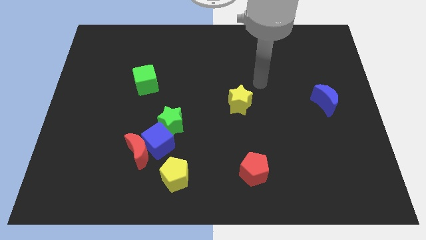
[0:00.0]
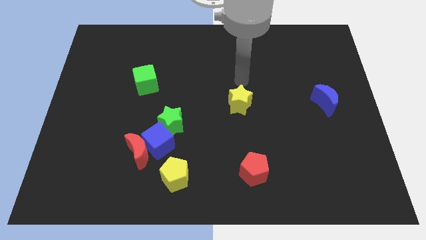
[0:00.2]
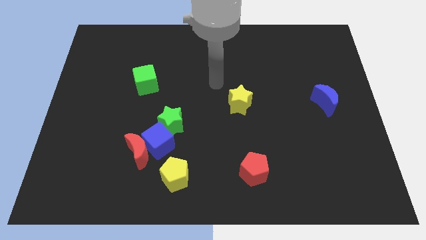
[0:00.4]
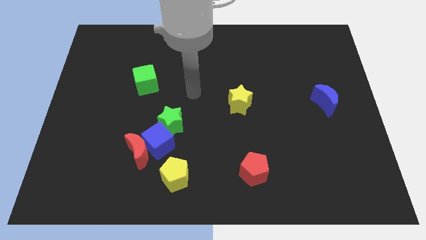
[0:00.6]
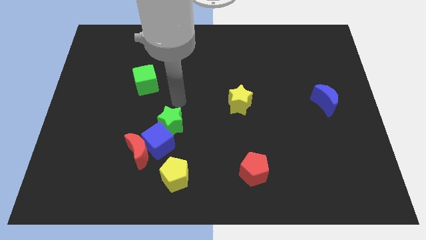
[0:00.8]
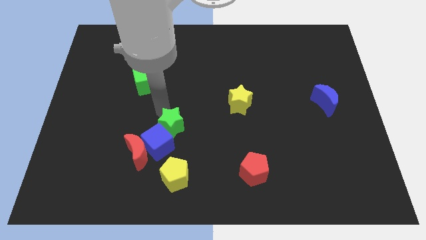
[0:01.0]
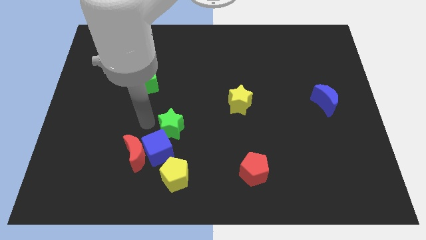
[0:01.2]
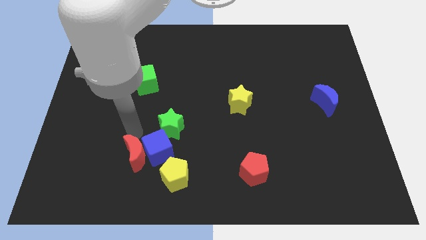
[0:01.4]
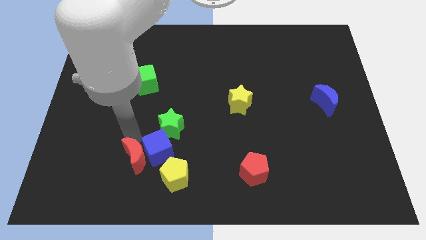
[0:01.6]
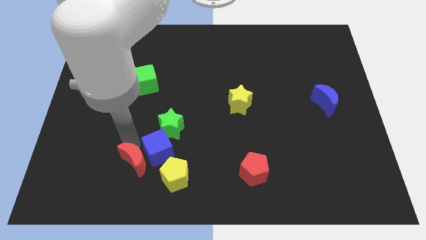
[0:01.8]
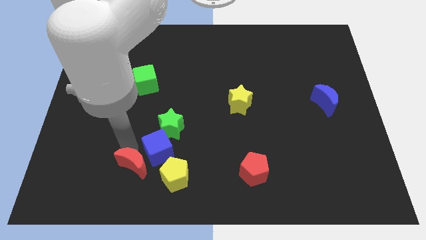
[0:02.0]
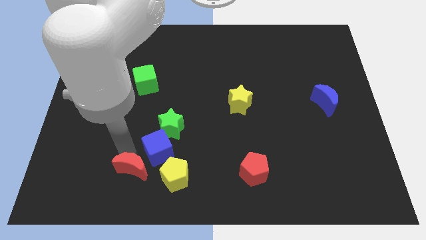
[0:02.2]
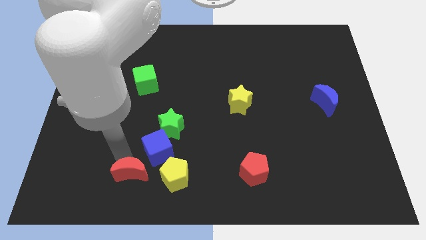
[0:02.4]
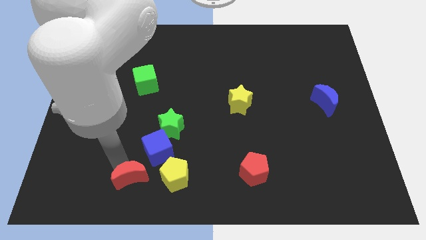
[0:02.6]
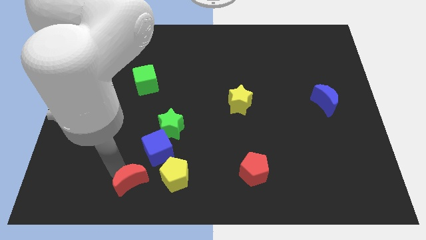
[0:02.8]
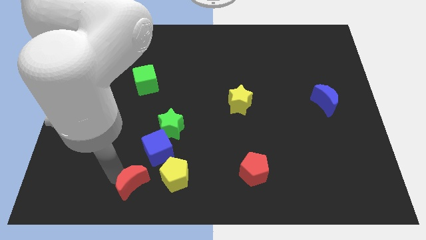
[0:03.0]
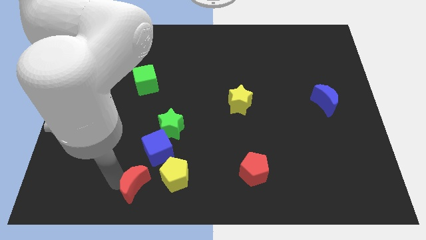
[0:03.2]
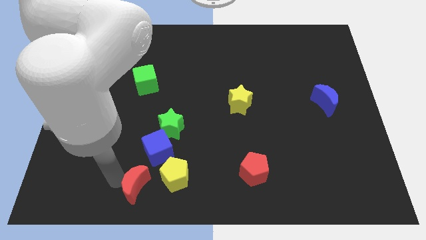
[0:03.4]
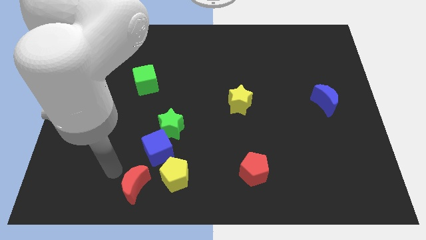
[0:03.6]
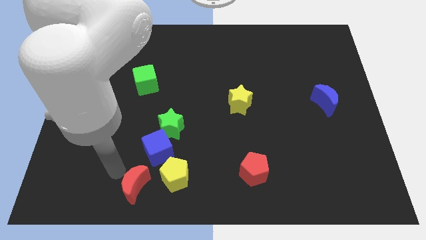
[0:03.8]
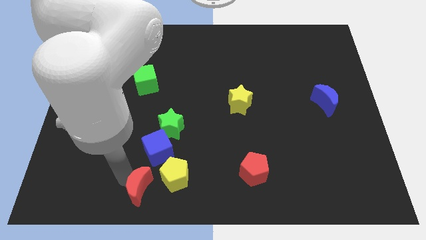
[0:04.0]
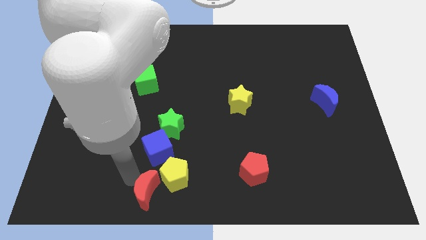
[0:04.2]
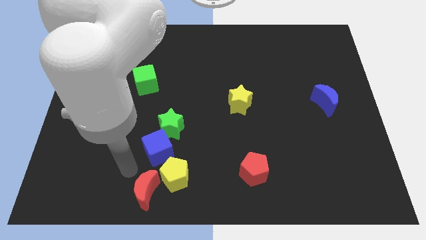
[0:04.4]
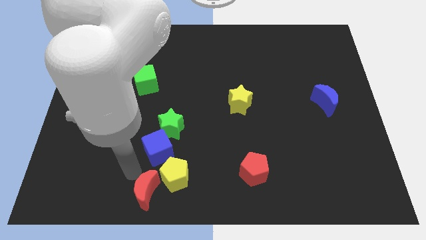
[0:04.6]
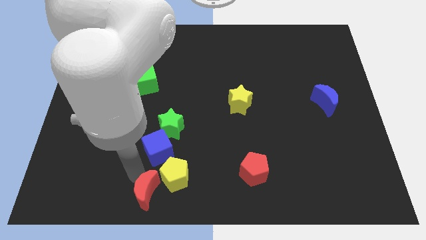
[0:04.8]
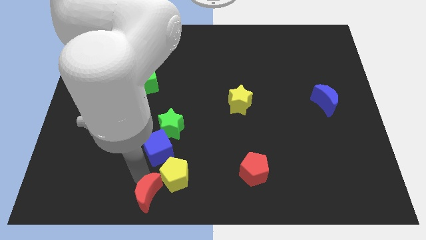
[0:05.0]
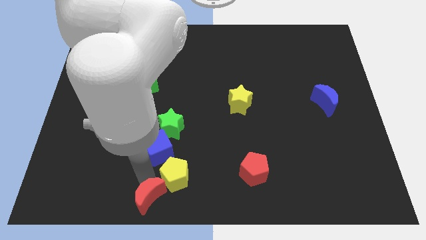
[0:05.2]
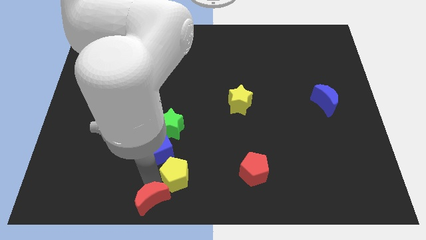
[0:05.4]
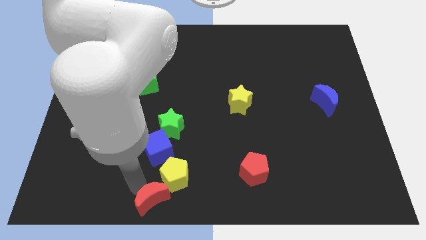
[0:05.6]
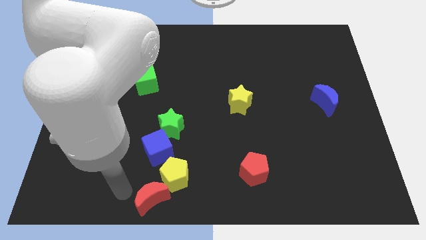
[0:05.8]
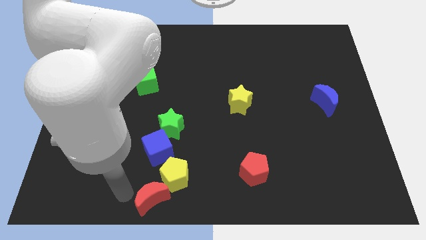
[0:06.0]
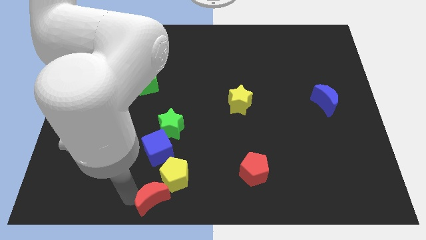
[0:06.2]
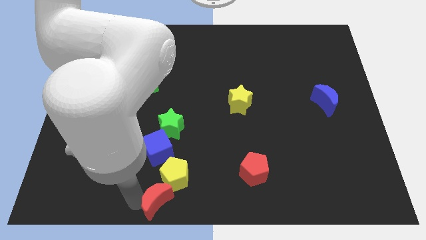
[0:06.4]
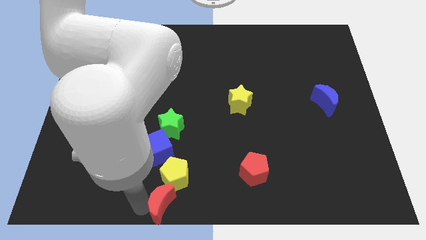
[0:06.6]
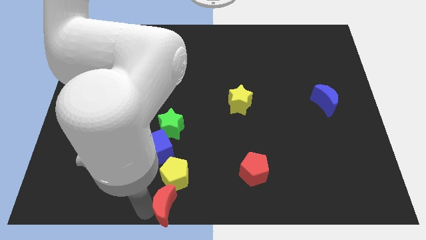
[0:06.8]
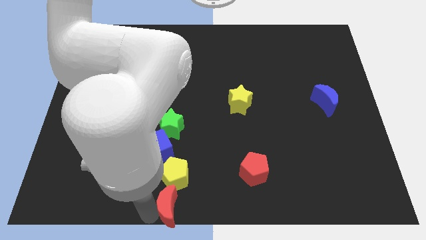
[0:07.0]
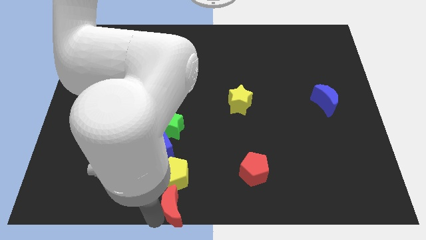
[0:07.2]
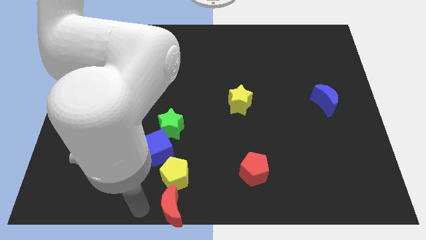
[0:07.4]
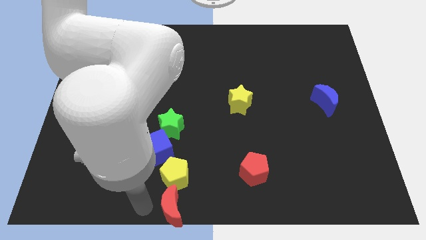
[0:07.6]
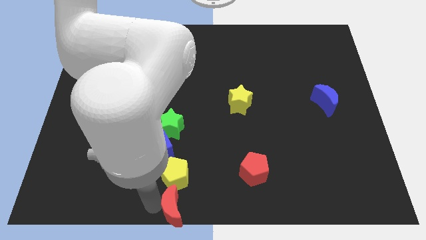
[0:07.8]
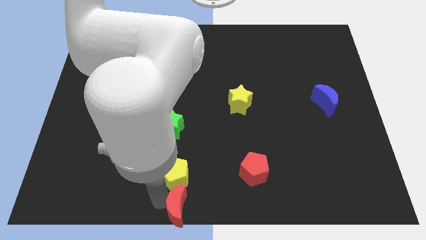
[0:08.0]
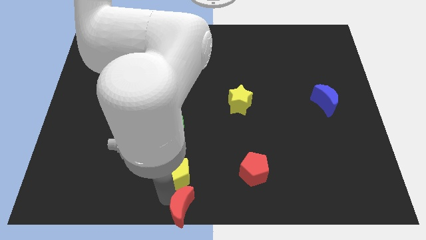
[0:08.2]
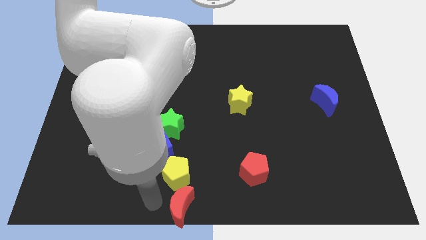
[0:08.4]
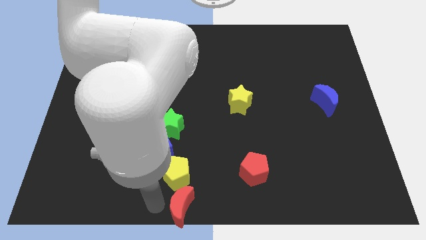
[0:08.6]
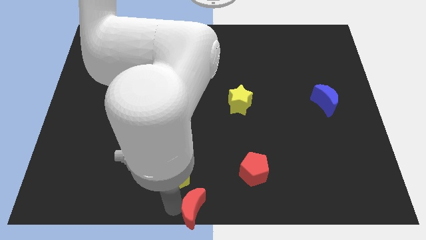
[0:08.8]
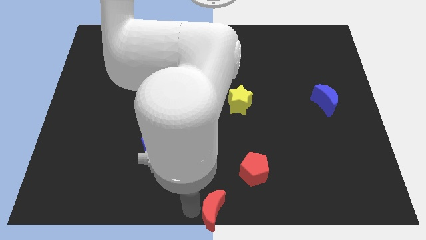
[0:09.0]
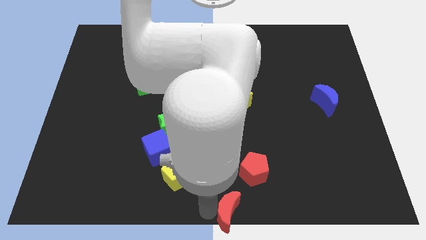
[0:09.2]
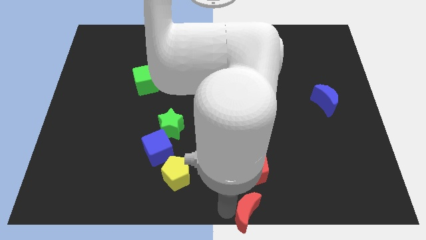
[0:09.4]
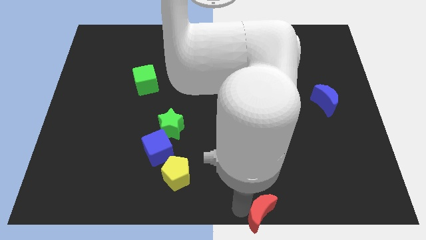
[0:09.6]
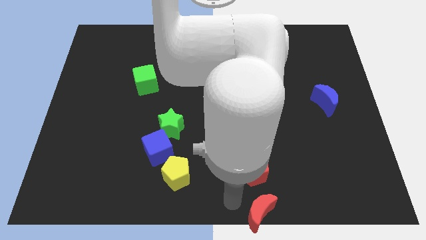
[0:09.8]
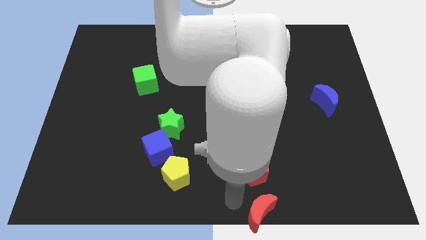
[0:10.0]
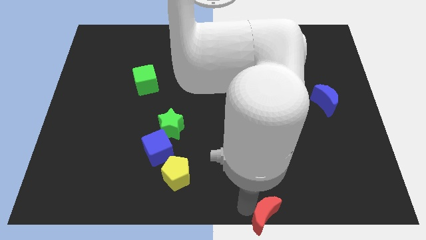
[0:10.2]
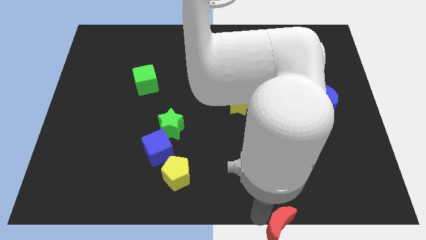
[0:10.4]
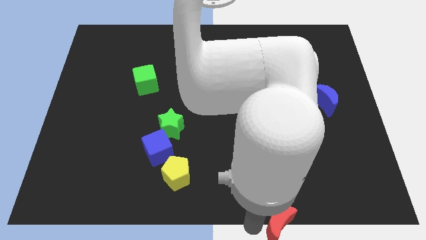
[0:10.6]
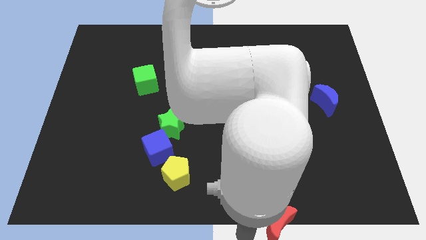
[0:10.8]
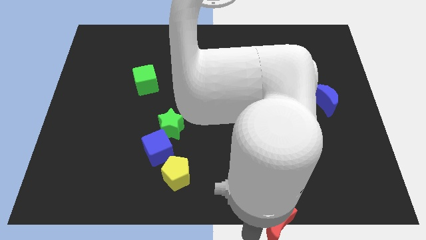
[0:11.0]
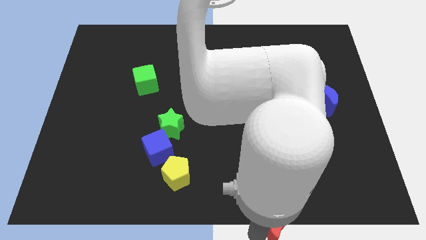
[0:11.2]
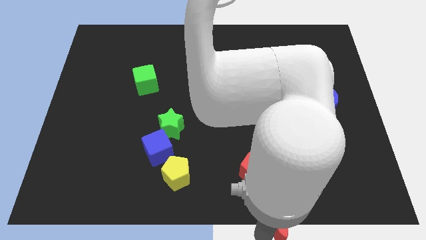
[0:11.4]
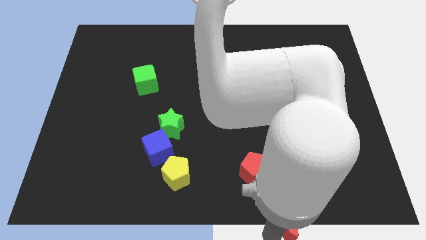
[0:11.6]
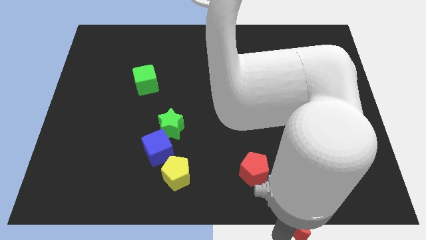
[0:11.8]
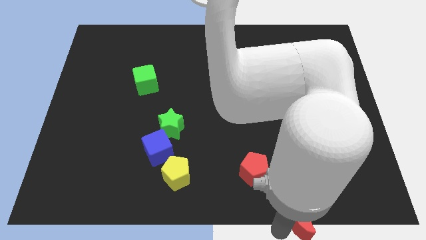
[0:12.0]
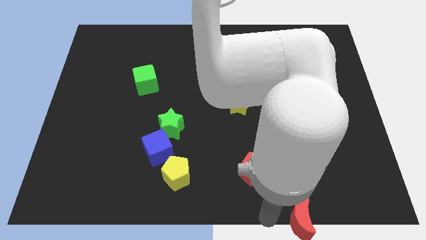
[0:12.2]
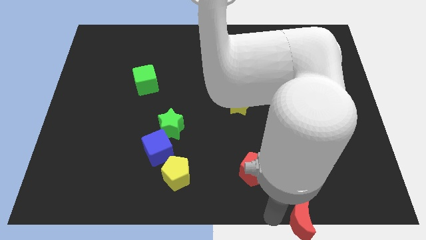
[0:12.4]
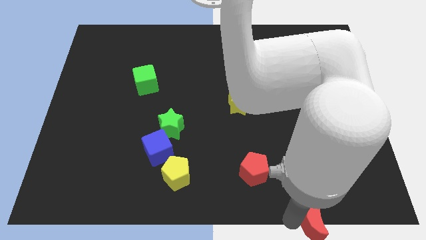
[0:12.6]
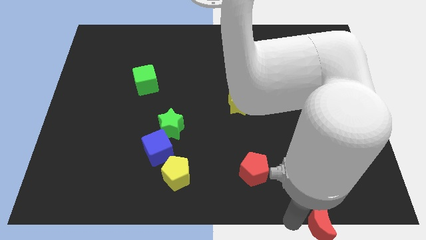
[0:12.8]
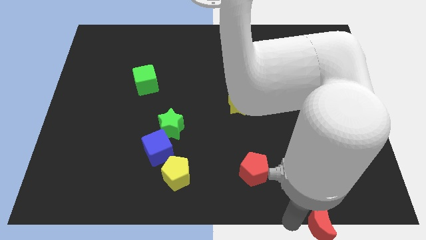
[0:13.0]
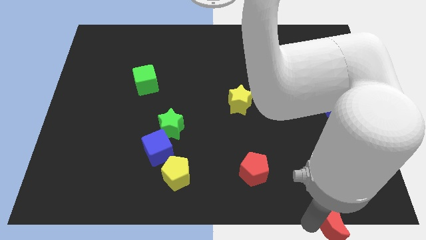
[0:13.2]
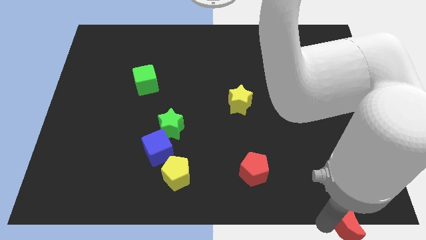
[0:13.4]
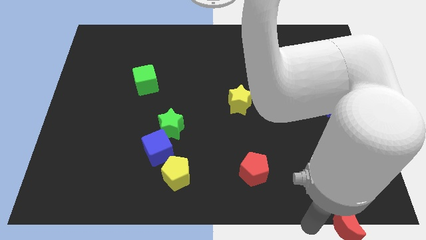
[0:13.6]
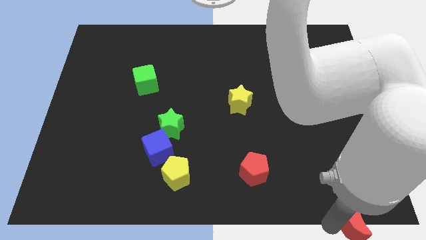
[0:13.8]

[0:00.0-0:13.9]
push the red moon to the bottom right of the board
